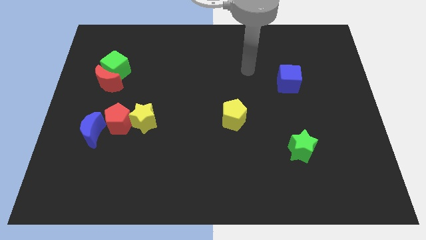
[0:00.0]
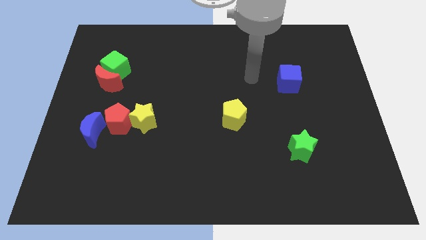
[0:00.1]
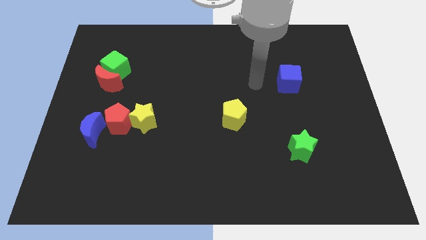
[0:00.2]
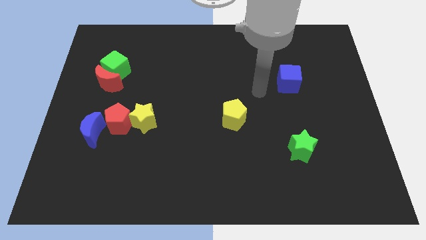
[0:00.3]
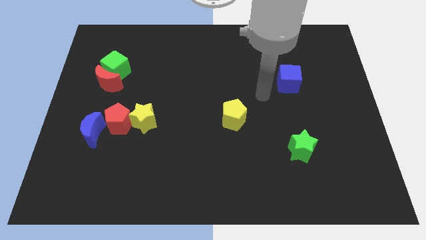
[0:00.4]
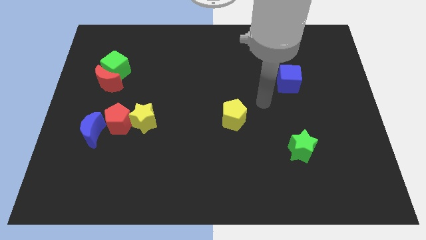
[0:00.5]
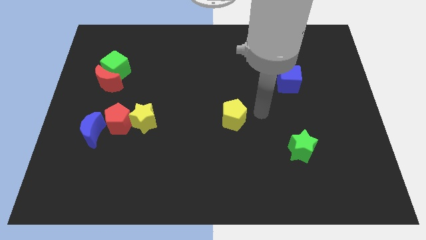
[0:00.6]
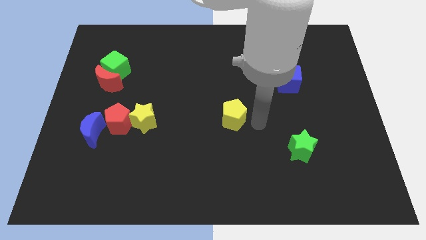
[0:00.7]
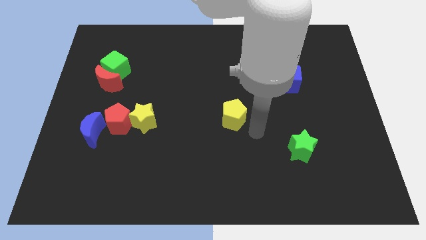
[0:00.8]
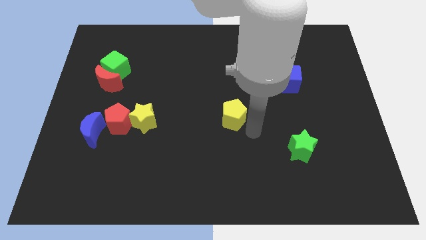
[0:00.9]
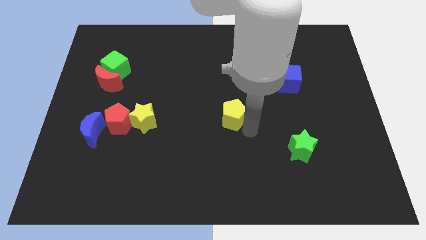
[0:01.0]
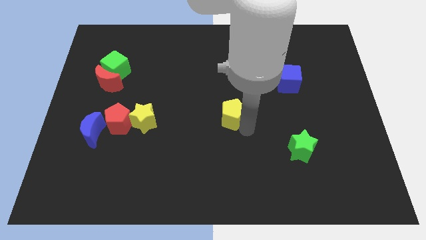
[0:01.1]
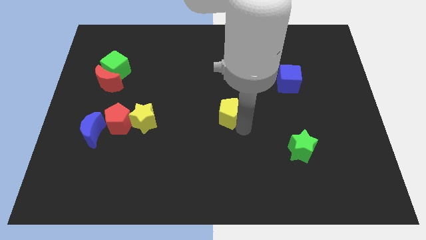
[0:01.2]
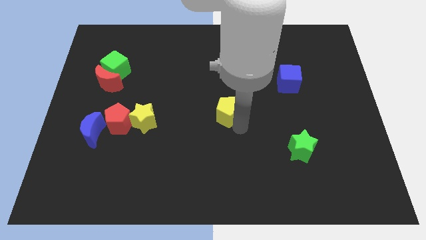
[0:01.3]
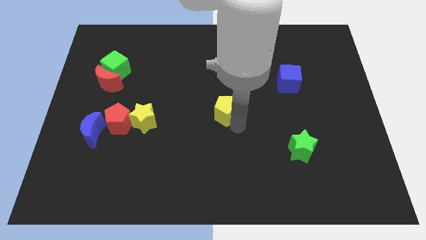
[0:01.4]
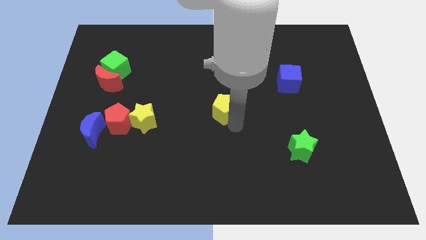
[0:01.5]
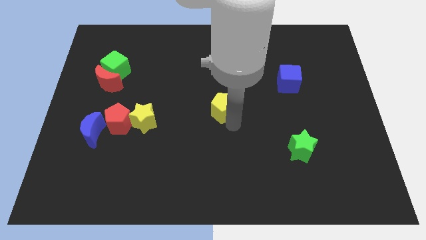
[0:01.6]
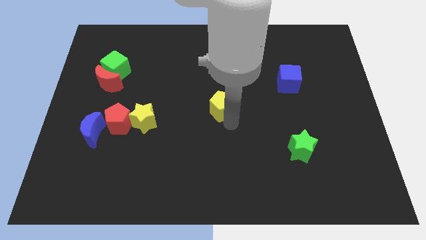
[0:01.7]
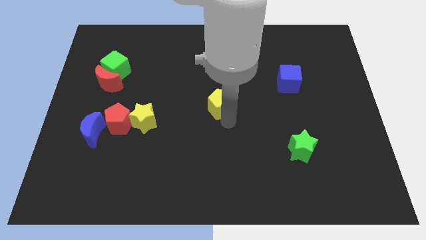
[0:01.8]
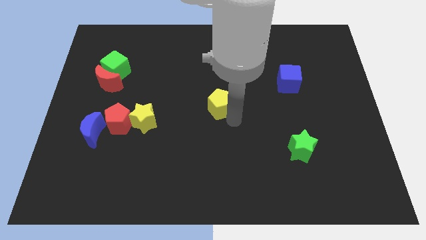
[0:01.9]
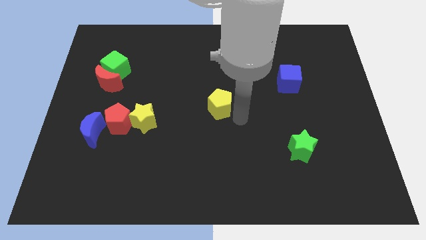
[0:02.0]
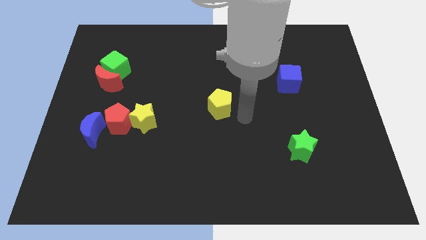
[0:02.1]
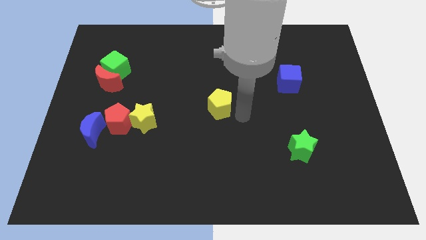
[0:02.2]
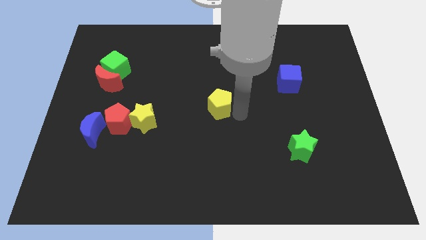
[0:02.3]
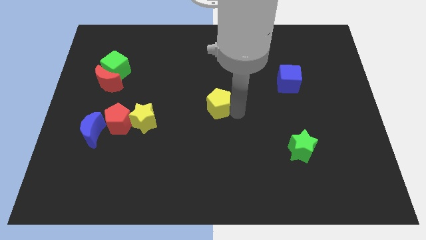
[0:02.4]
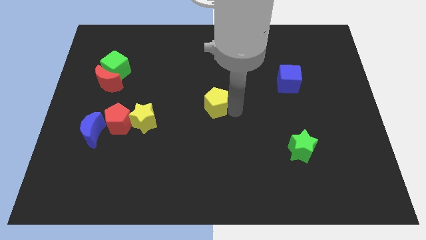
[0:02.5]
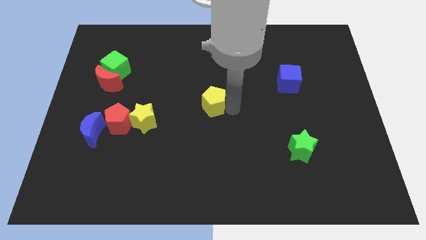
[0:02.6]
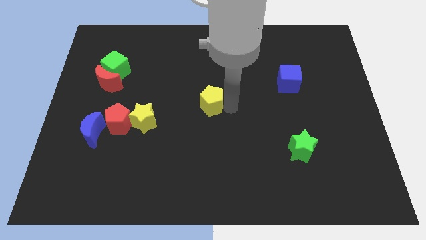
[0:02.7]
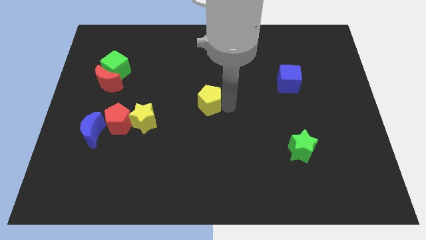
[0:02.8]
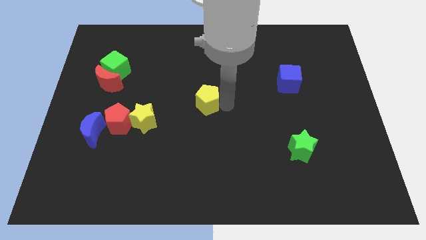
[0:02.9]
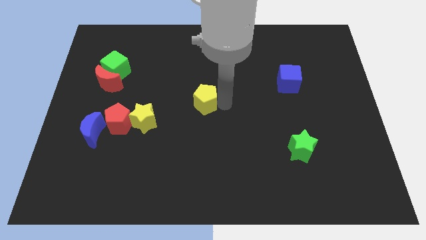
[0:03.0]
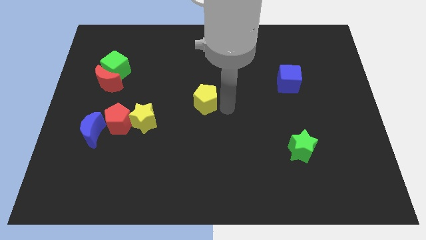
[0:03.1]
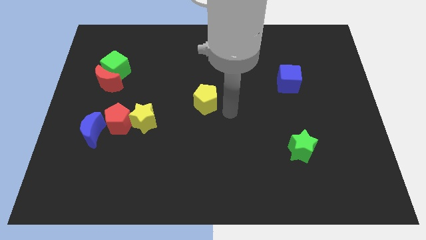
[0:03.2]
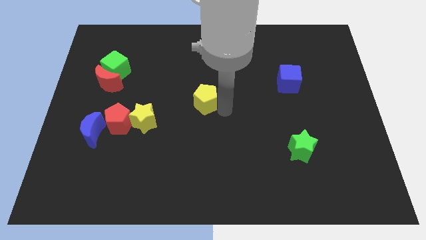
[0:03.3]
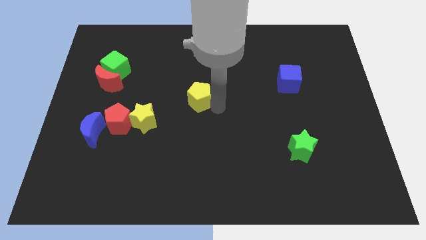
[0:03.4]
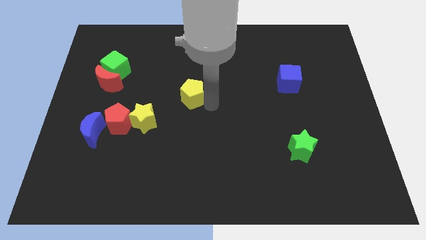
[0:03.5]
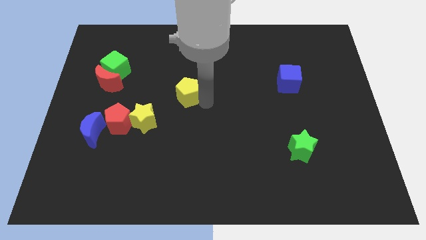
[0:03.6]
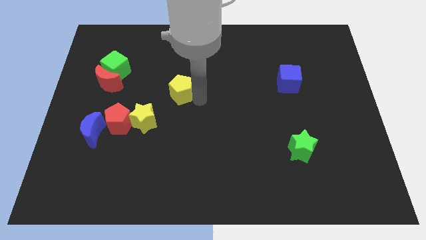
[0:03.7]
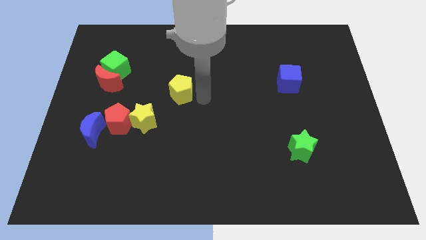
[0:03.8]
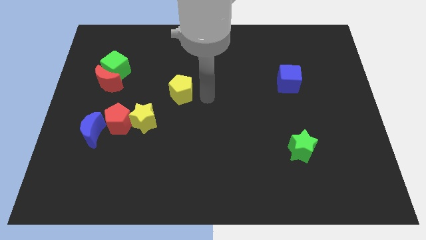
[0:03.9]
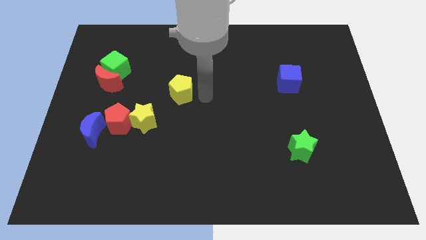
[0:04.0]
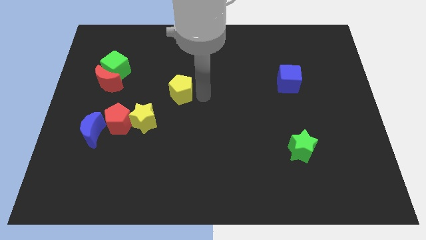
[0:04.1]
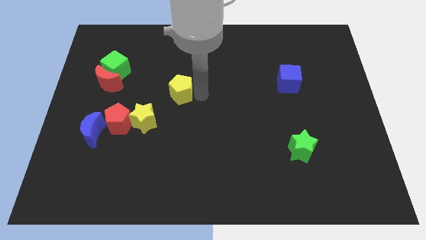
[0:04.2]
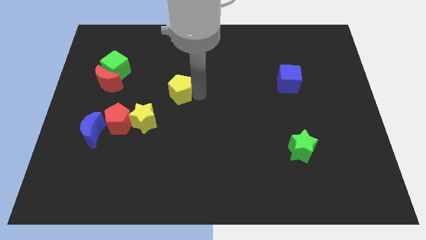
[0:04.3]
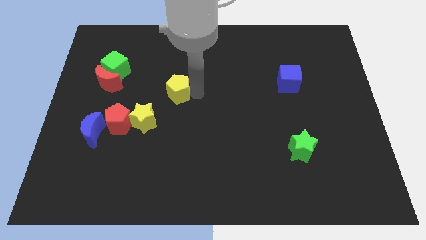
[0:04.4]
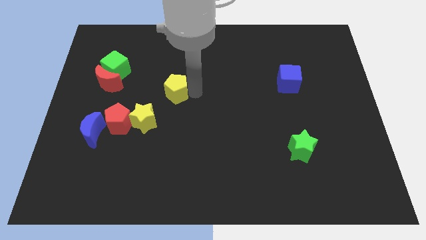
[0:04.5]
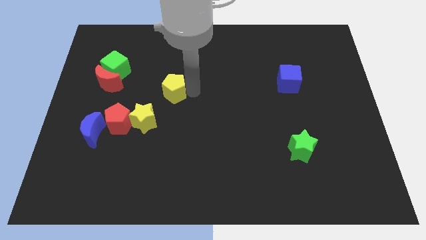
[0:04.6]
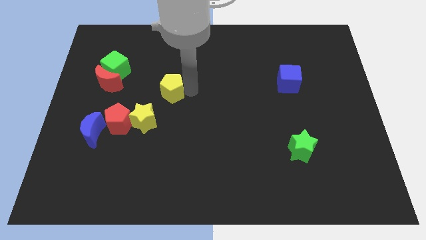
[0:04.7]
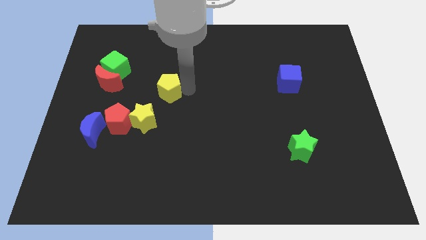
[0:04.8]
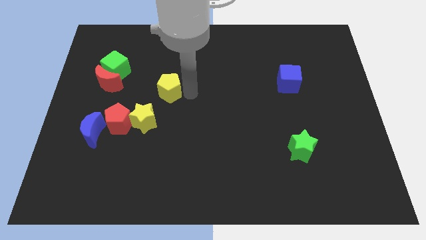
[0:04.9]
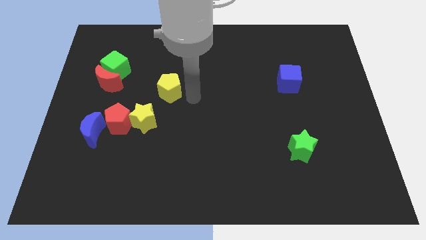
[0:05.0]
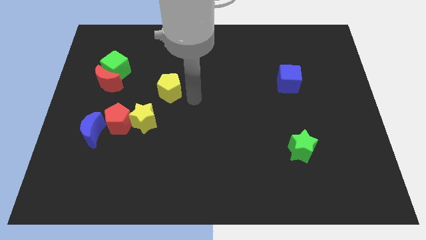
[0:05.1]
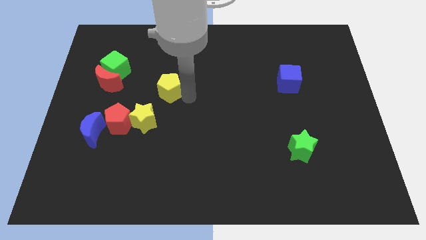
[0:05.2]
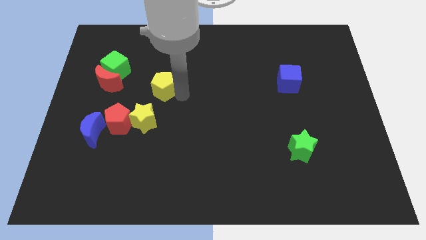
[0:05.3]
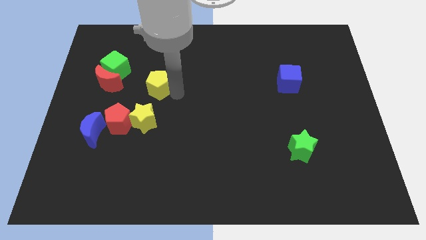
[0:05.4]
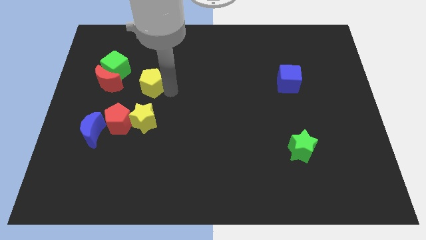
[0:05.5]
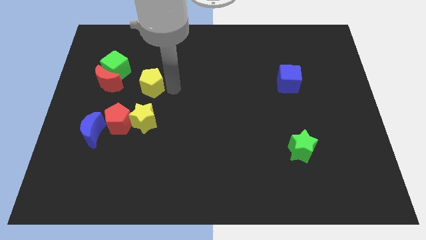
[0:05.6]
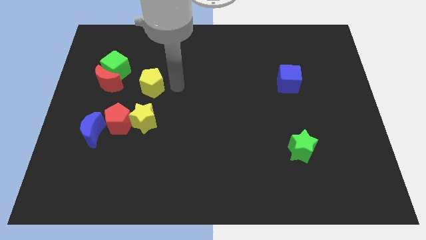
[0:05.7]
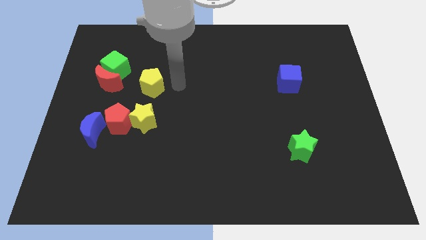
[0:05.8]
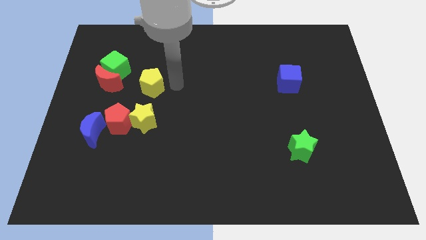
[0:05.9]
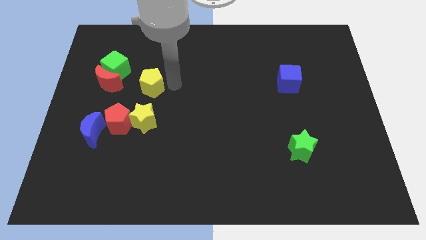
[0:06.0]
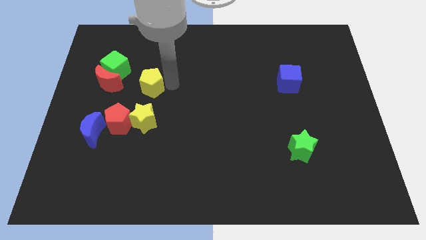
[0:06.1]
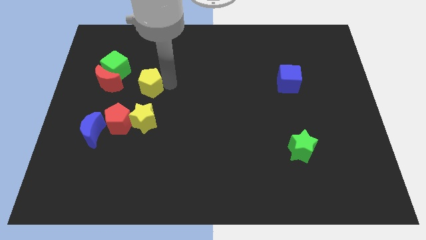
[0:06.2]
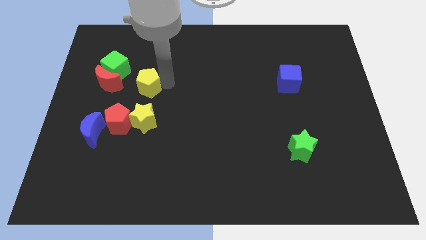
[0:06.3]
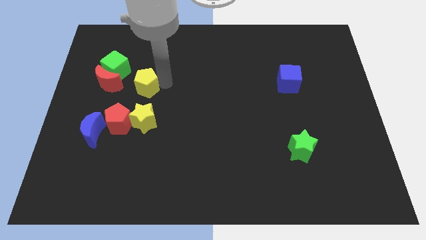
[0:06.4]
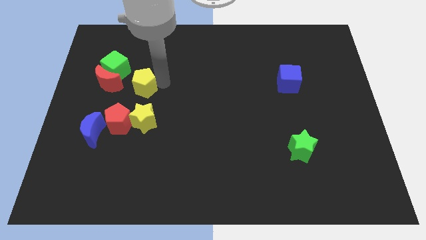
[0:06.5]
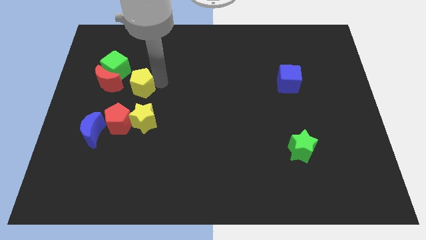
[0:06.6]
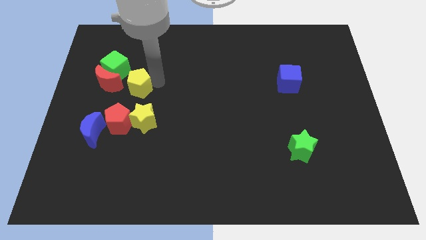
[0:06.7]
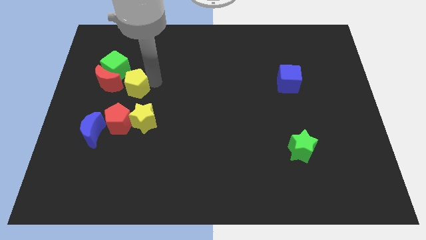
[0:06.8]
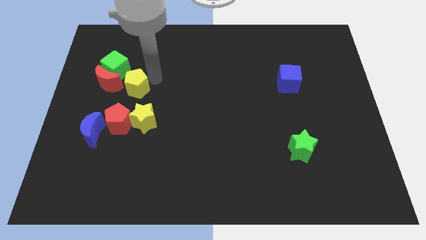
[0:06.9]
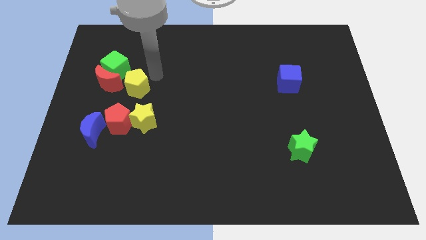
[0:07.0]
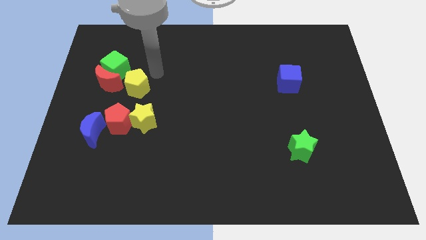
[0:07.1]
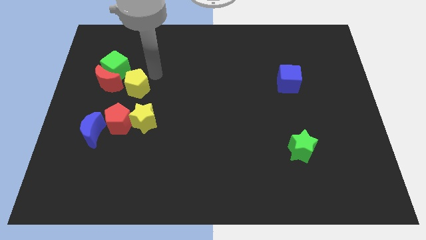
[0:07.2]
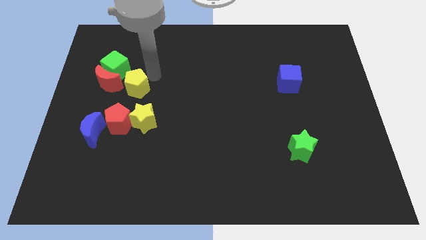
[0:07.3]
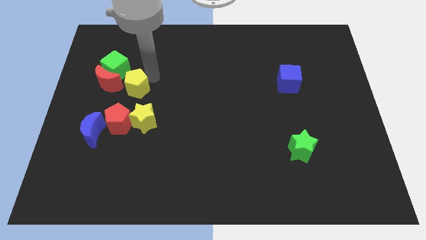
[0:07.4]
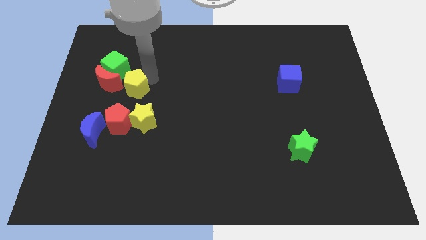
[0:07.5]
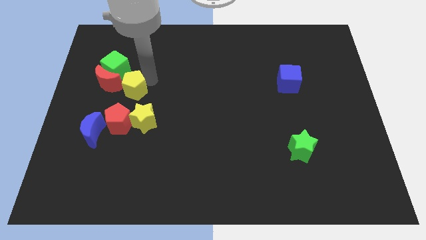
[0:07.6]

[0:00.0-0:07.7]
move the yellow pentagon left

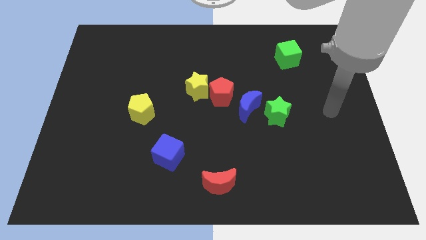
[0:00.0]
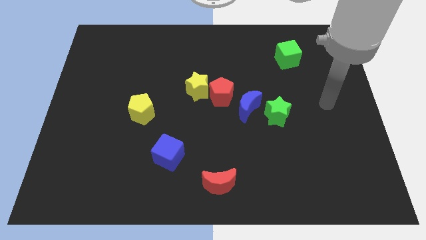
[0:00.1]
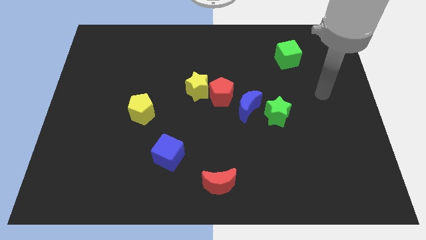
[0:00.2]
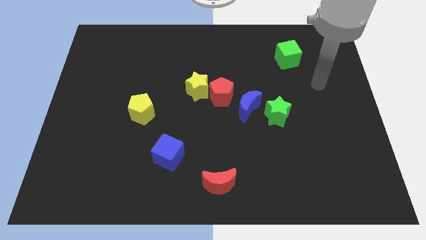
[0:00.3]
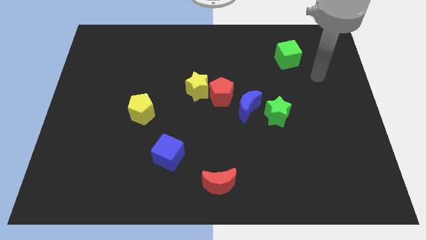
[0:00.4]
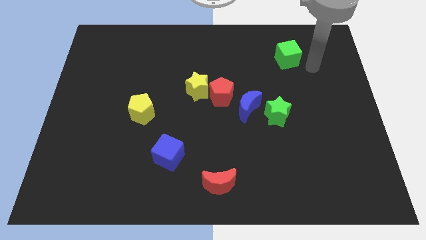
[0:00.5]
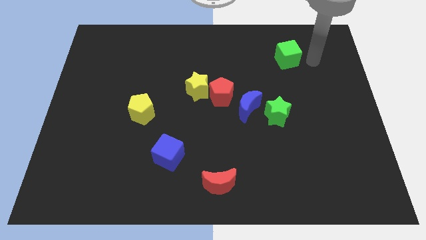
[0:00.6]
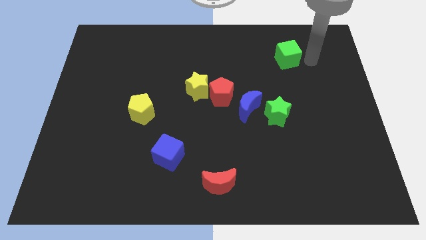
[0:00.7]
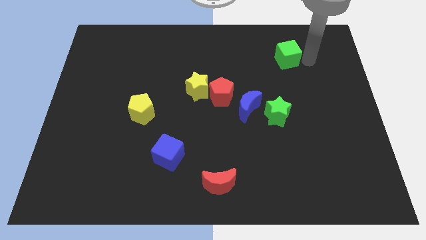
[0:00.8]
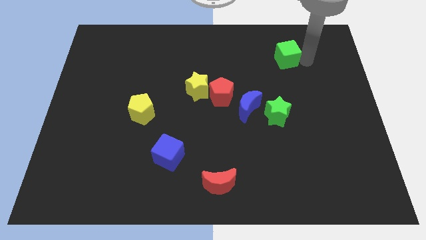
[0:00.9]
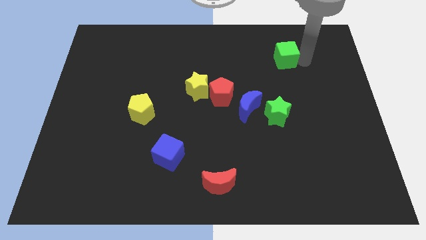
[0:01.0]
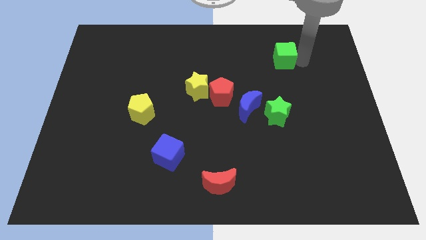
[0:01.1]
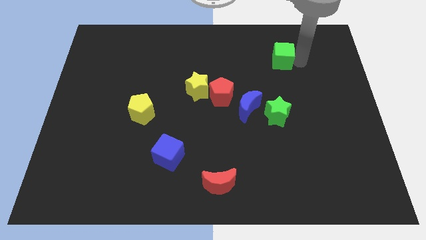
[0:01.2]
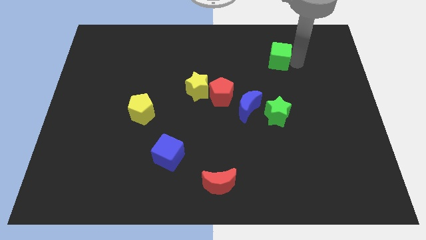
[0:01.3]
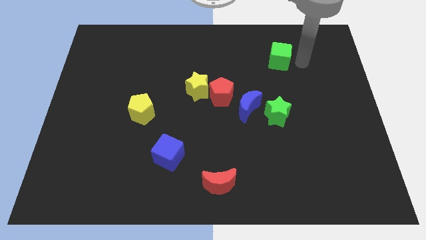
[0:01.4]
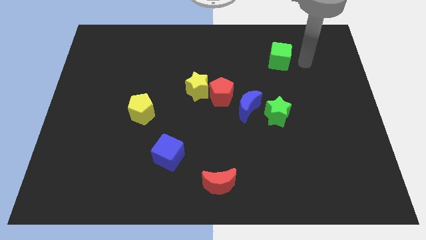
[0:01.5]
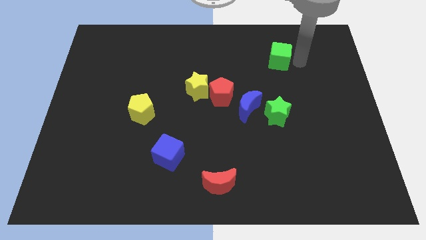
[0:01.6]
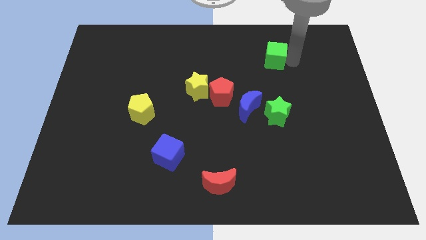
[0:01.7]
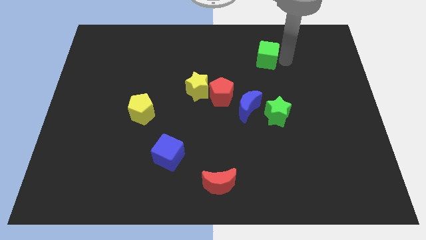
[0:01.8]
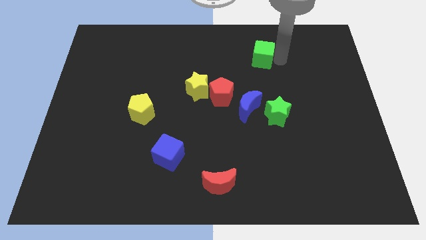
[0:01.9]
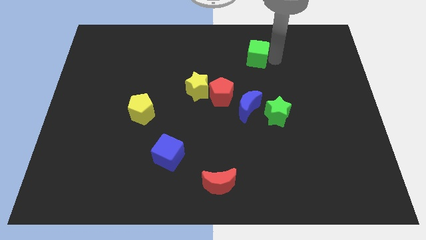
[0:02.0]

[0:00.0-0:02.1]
slide the green cube somewhat left
